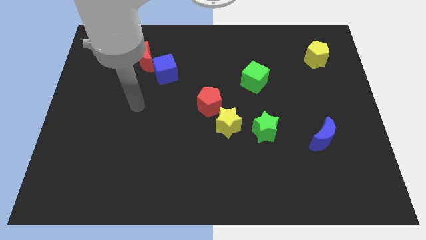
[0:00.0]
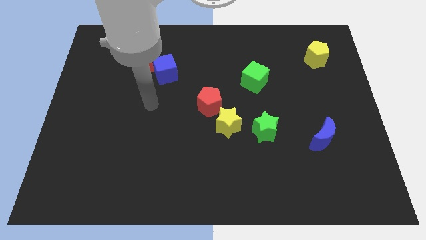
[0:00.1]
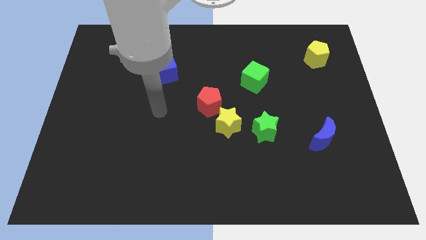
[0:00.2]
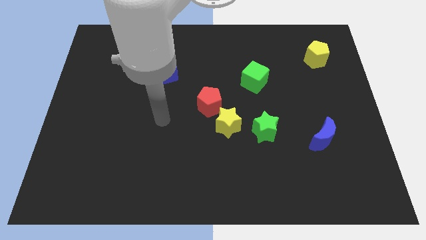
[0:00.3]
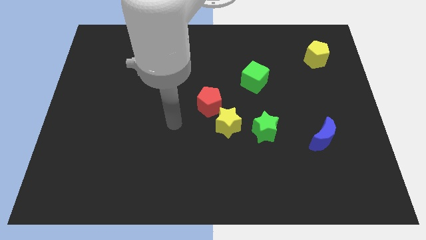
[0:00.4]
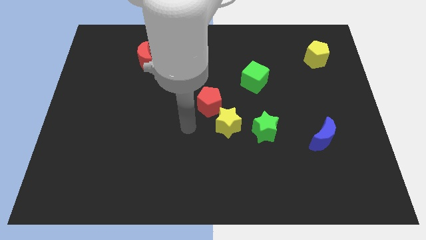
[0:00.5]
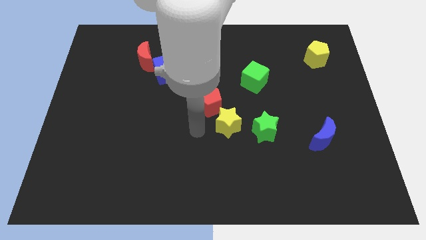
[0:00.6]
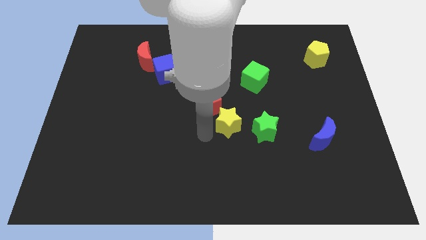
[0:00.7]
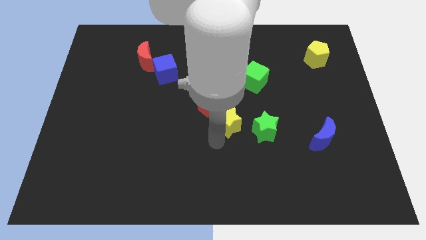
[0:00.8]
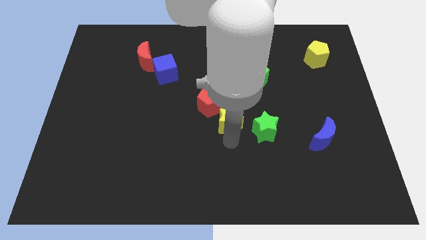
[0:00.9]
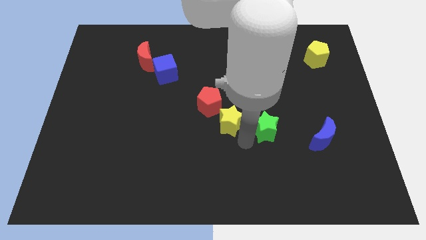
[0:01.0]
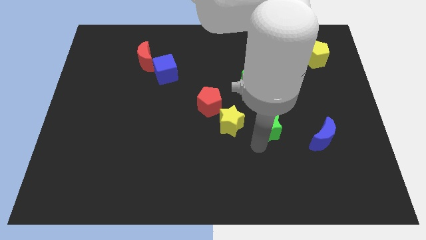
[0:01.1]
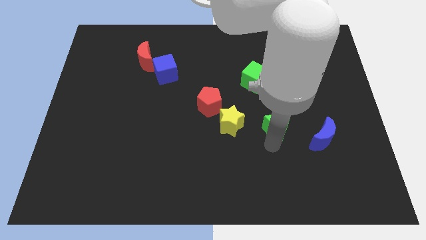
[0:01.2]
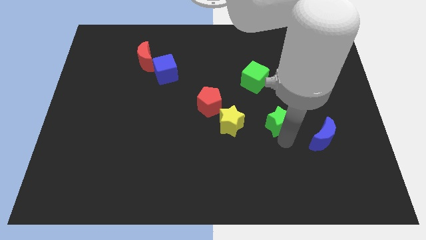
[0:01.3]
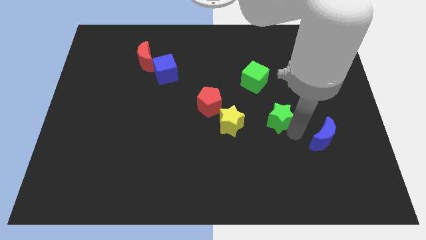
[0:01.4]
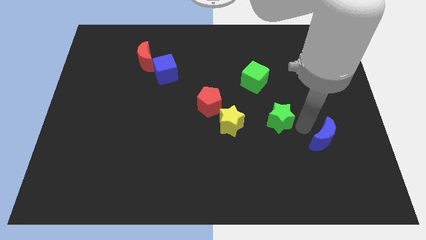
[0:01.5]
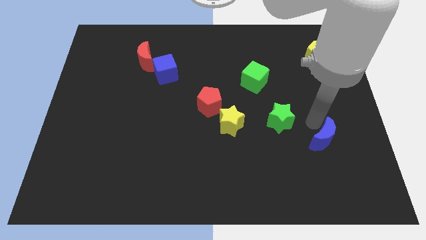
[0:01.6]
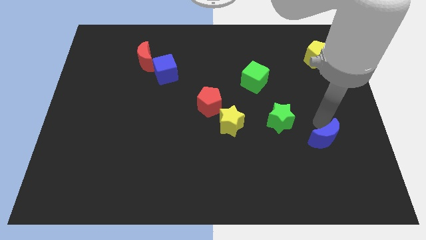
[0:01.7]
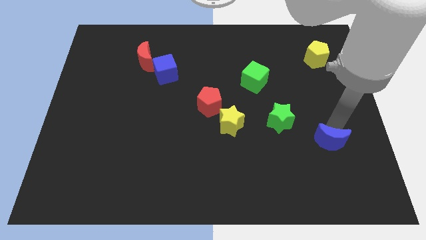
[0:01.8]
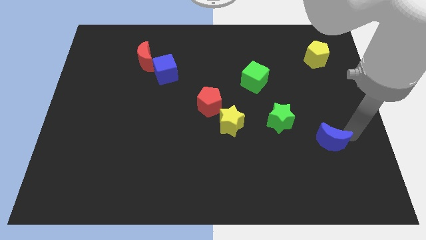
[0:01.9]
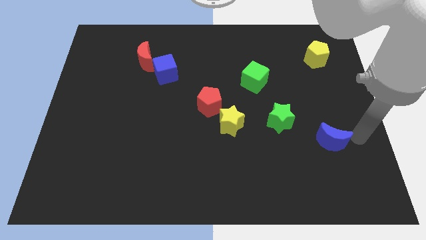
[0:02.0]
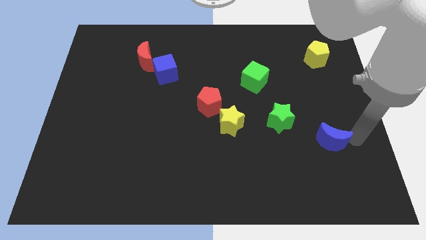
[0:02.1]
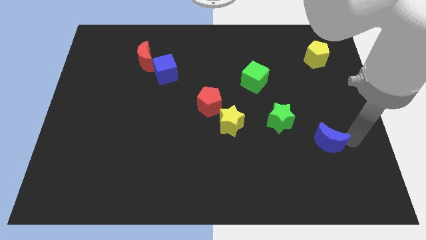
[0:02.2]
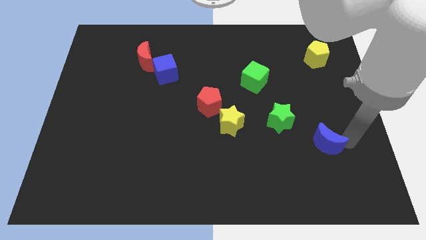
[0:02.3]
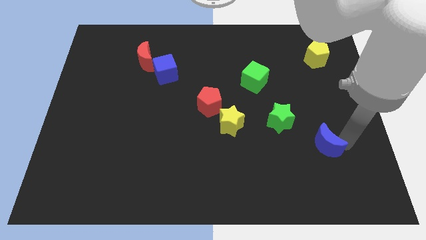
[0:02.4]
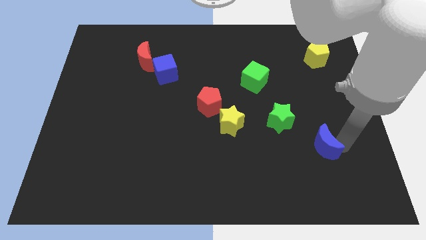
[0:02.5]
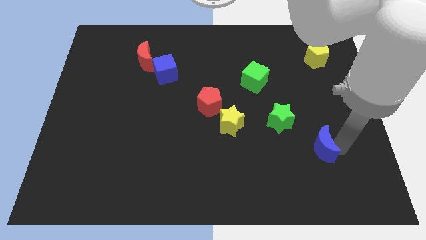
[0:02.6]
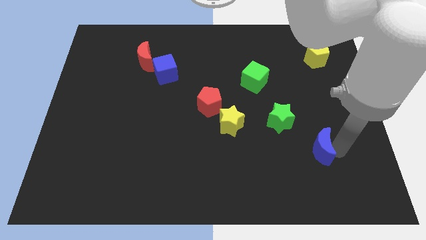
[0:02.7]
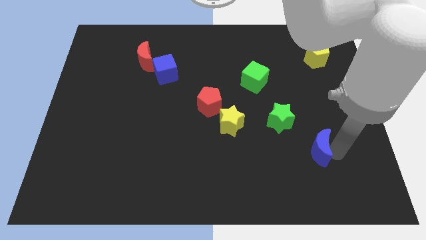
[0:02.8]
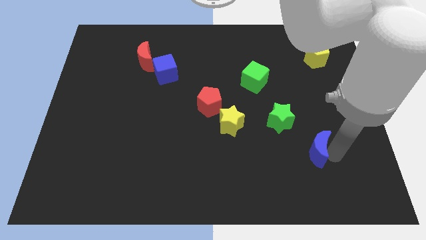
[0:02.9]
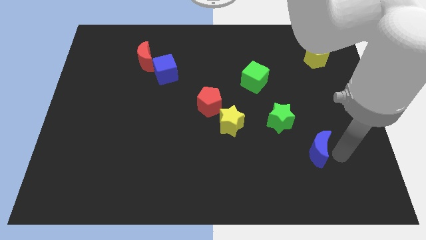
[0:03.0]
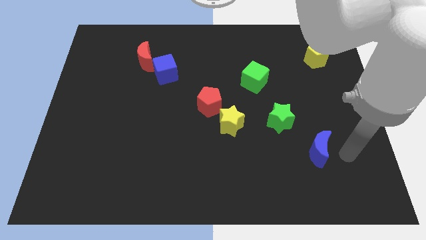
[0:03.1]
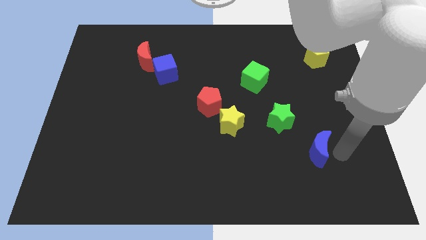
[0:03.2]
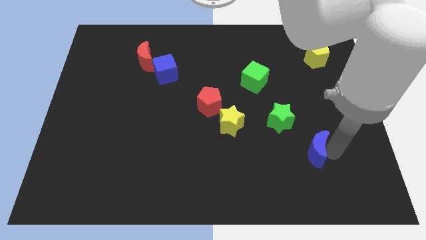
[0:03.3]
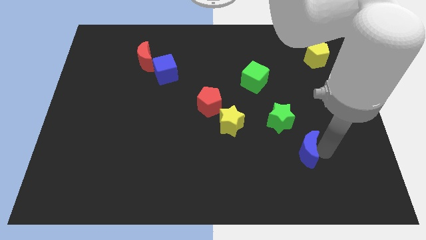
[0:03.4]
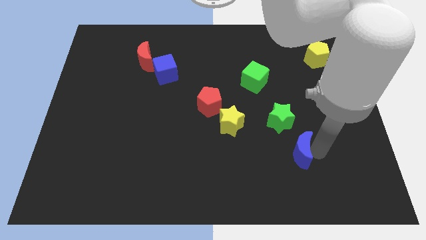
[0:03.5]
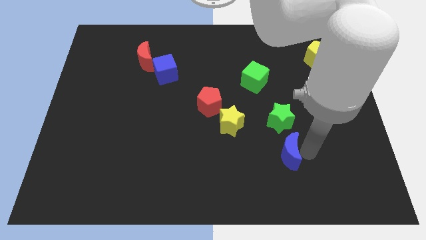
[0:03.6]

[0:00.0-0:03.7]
slightly push the blue moon to the left

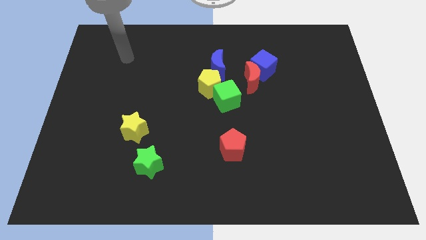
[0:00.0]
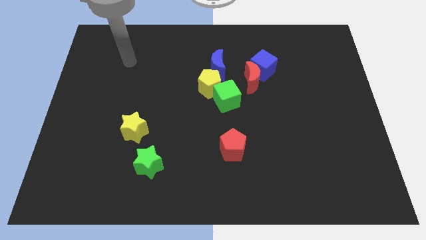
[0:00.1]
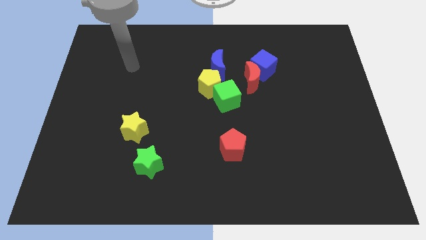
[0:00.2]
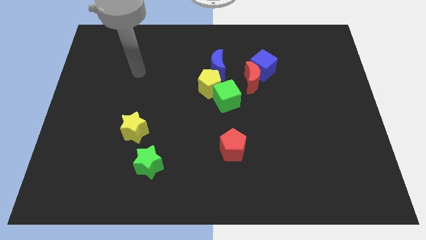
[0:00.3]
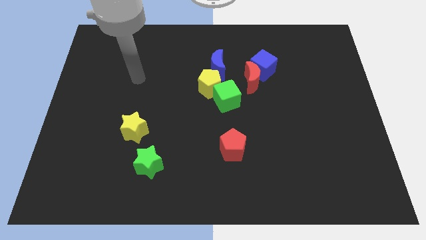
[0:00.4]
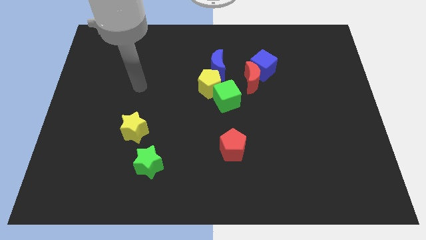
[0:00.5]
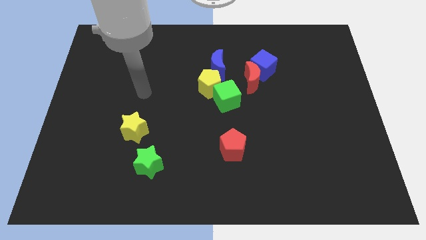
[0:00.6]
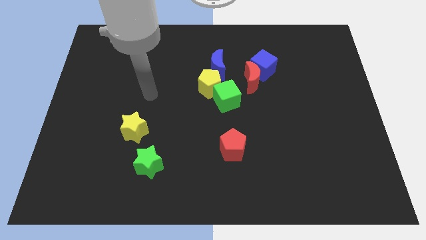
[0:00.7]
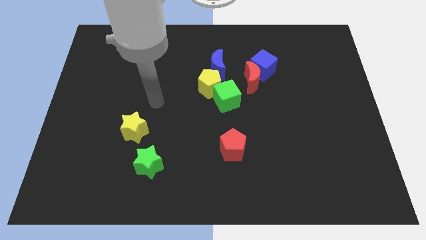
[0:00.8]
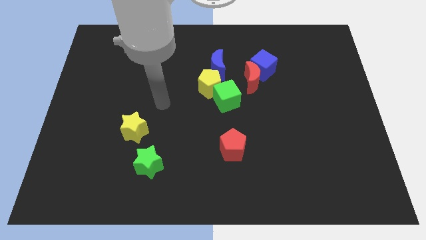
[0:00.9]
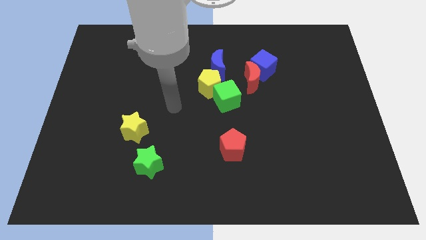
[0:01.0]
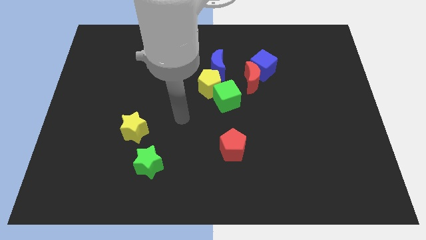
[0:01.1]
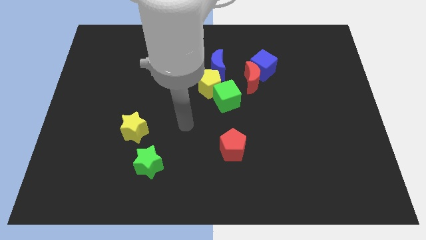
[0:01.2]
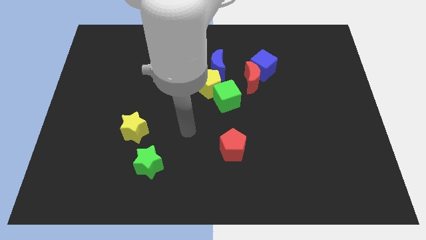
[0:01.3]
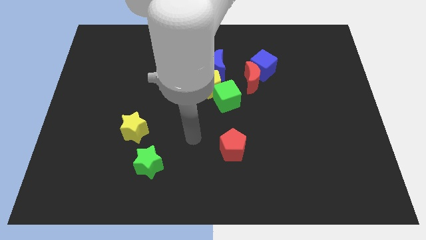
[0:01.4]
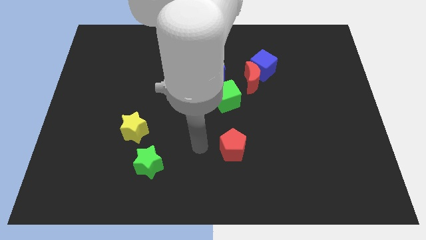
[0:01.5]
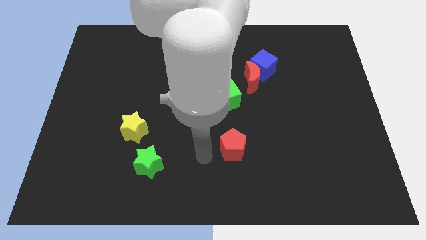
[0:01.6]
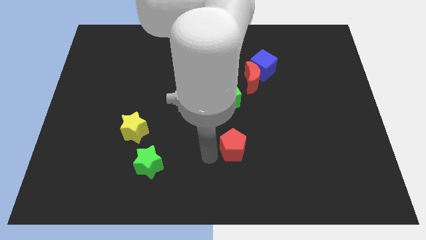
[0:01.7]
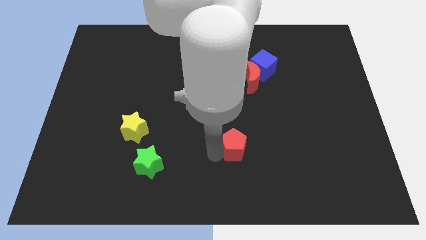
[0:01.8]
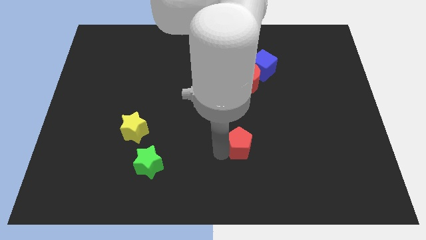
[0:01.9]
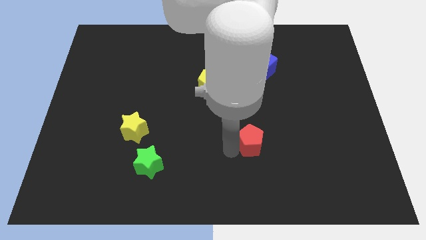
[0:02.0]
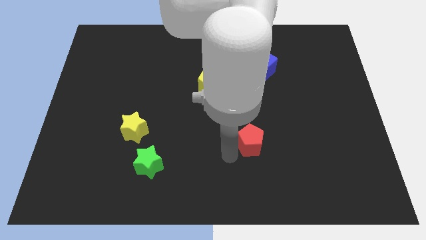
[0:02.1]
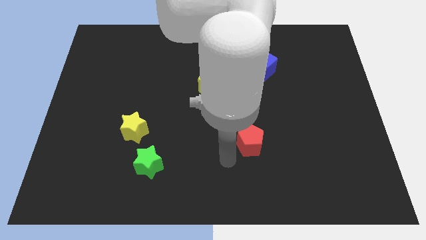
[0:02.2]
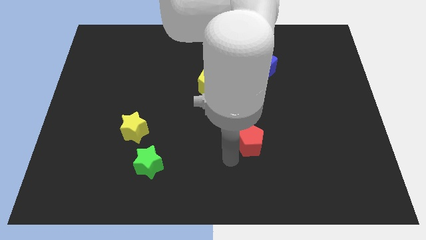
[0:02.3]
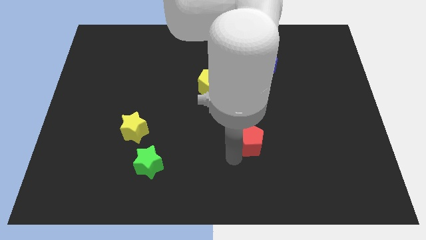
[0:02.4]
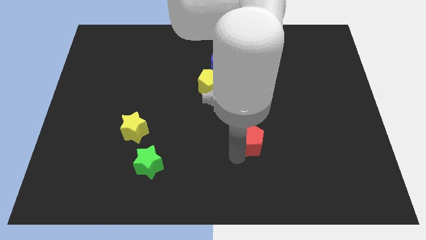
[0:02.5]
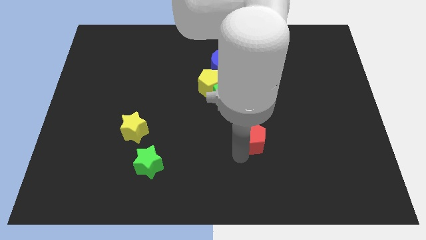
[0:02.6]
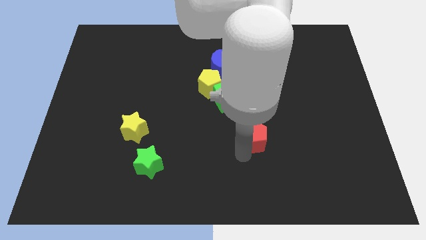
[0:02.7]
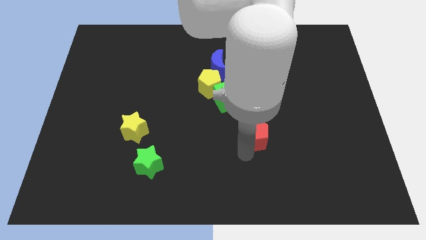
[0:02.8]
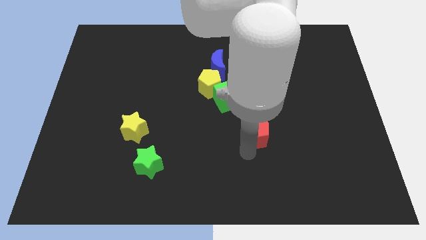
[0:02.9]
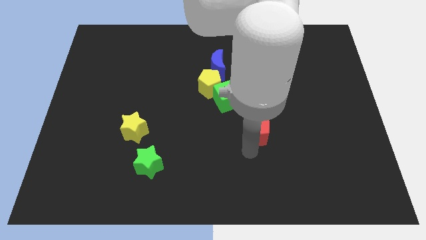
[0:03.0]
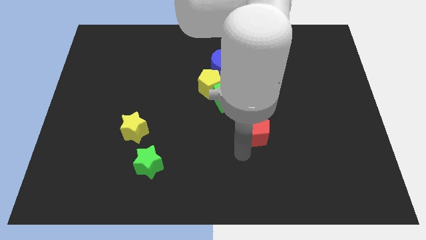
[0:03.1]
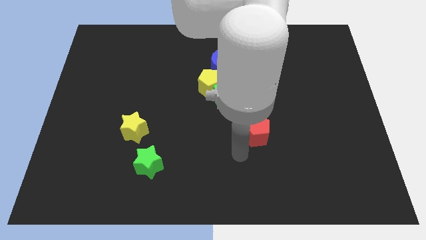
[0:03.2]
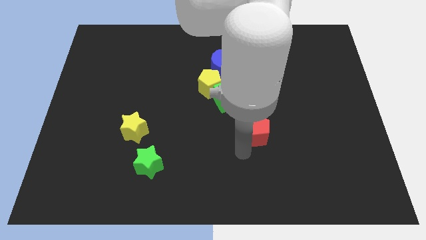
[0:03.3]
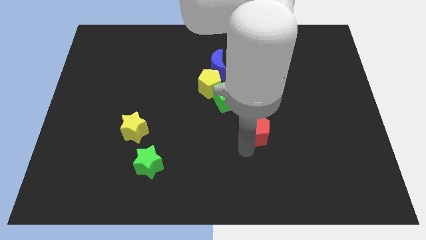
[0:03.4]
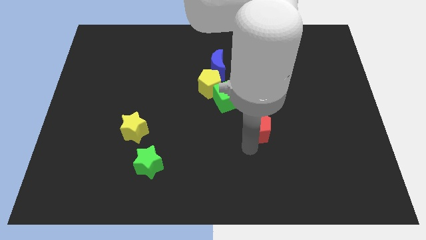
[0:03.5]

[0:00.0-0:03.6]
push the red pentagon a bit diagonally up and to the right

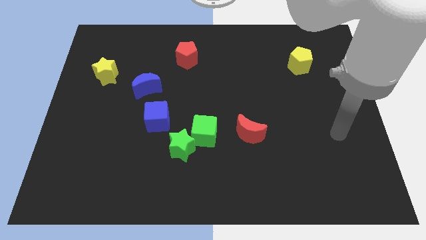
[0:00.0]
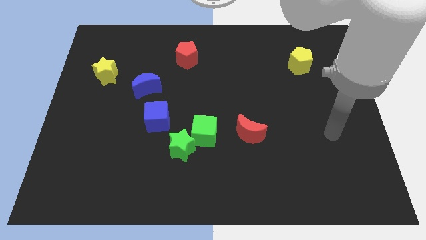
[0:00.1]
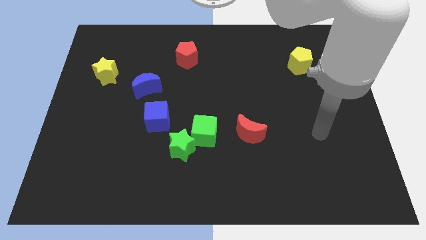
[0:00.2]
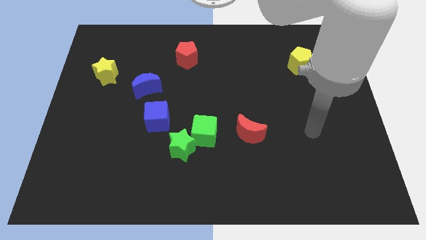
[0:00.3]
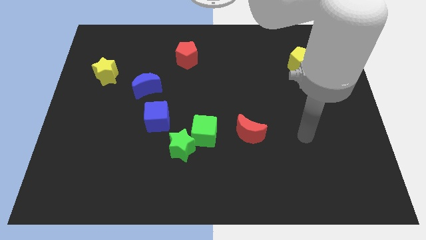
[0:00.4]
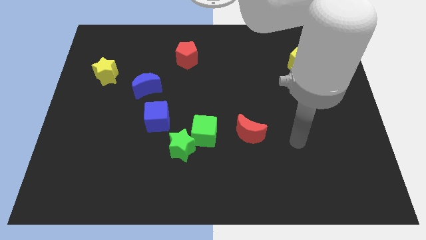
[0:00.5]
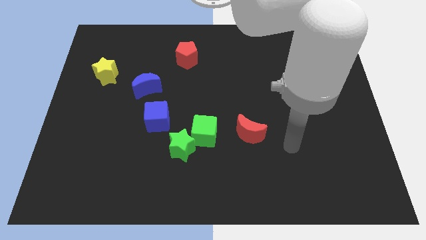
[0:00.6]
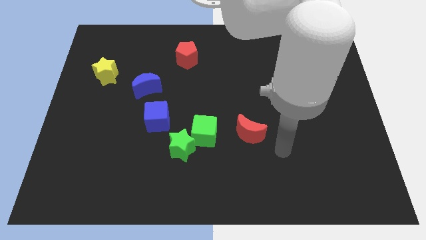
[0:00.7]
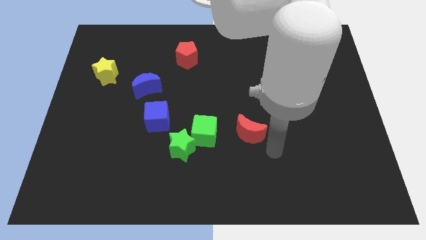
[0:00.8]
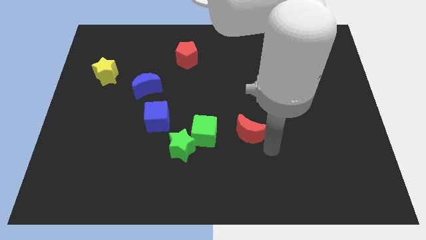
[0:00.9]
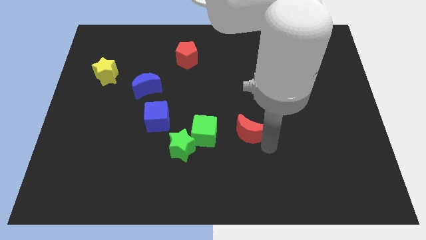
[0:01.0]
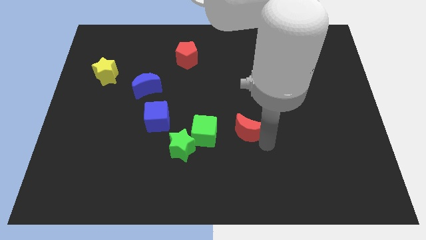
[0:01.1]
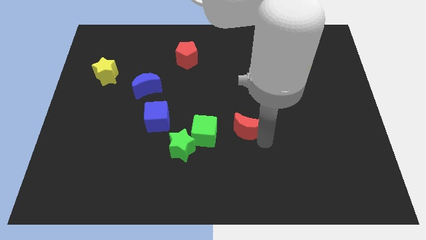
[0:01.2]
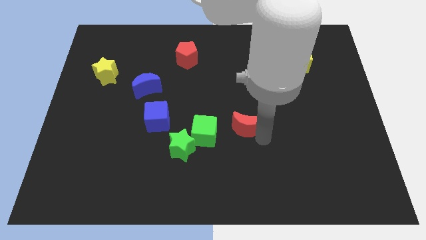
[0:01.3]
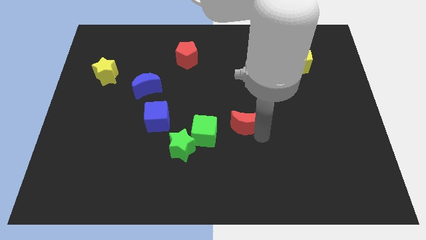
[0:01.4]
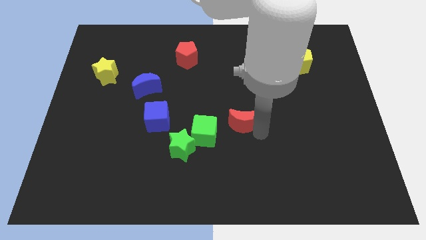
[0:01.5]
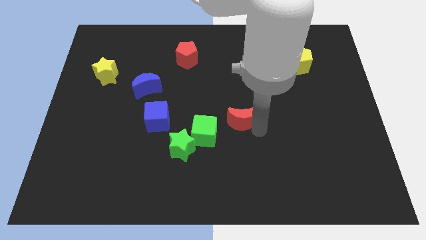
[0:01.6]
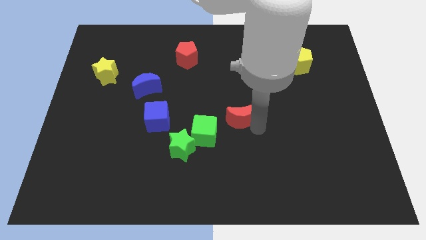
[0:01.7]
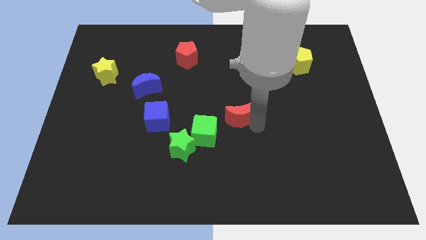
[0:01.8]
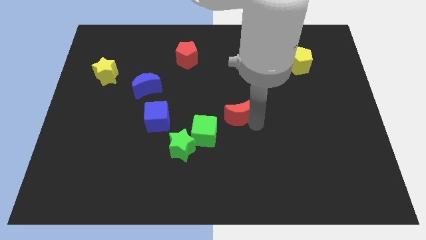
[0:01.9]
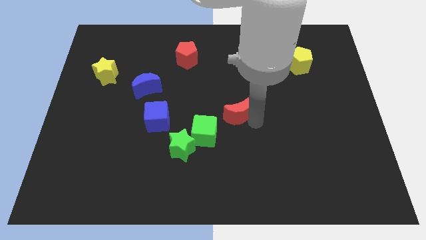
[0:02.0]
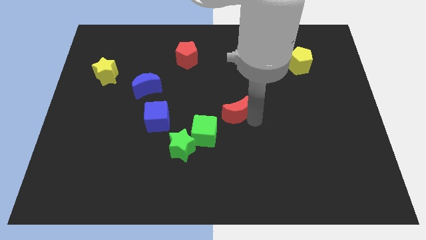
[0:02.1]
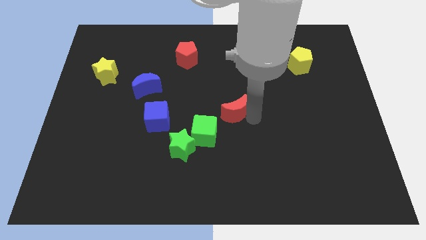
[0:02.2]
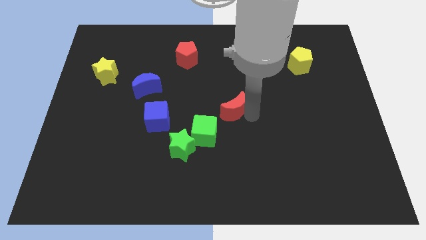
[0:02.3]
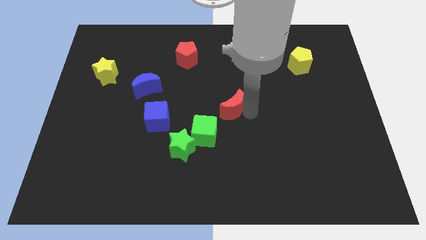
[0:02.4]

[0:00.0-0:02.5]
push the red moon diagonally up and left a little bit
